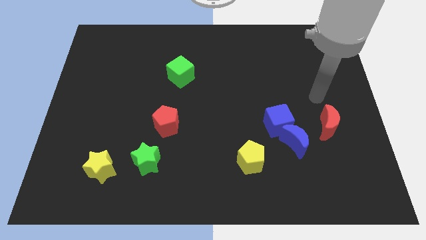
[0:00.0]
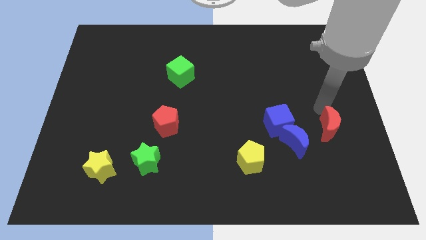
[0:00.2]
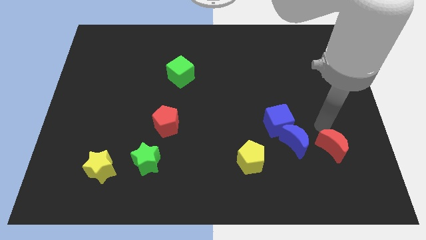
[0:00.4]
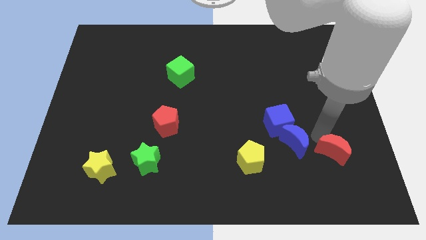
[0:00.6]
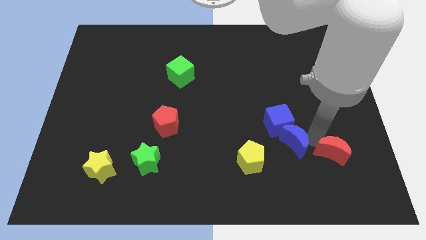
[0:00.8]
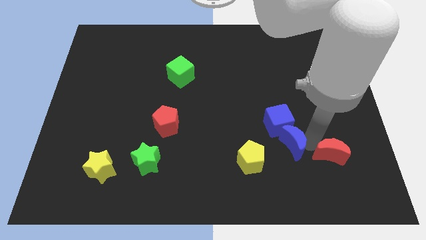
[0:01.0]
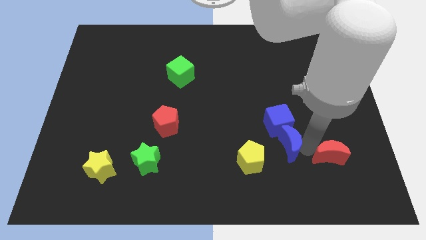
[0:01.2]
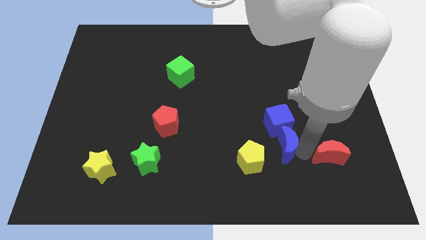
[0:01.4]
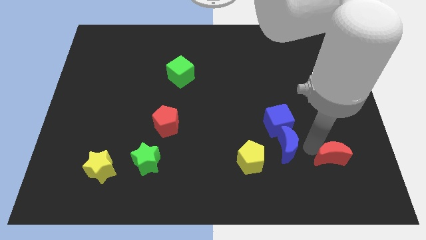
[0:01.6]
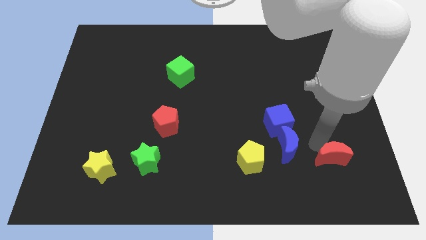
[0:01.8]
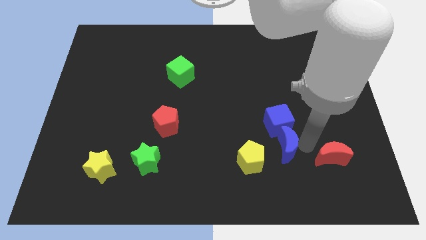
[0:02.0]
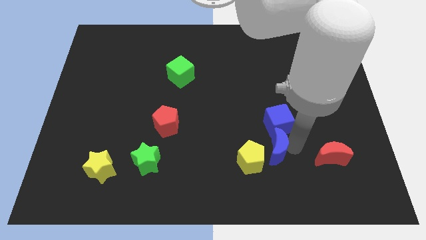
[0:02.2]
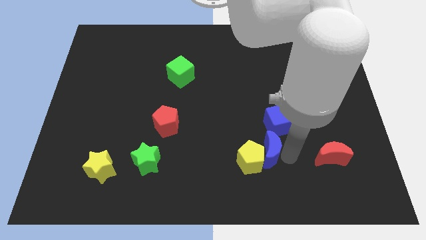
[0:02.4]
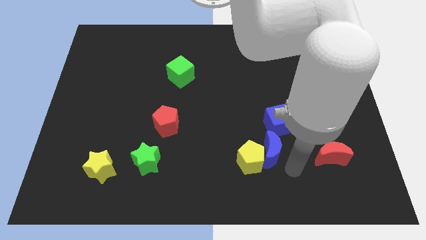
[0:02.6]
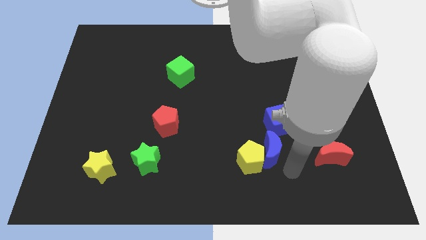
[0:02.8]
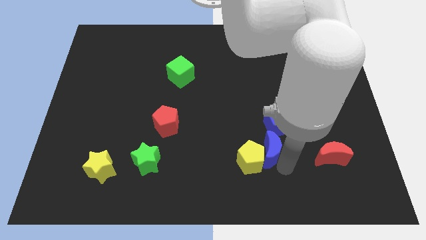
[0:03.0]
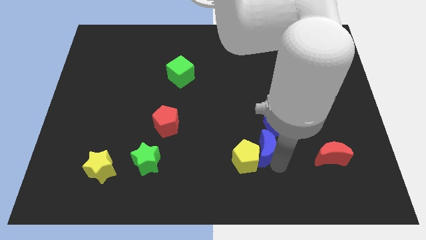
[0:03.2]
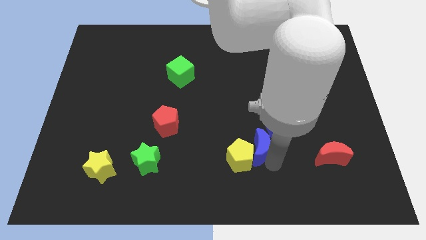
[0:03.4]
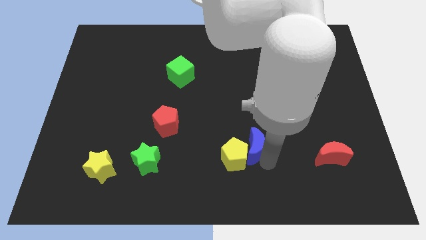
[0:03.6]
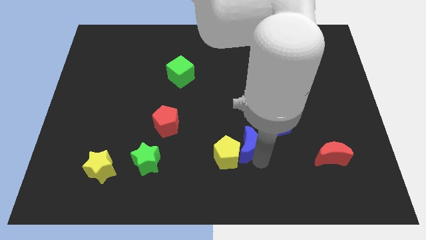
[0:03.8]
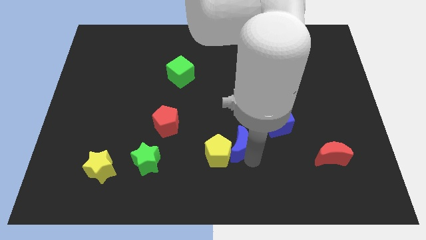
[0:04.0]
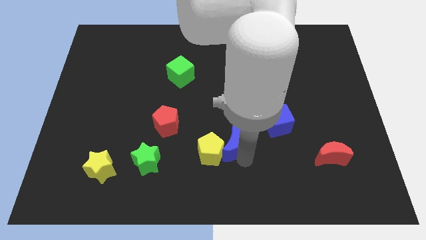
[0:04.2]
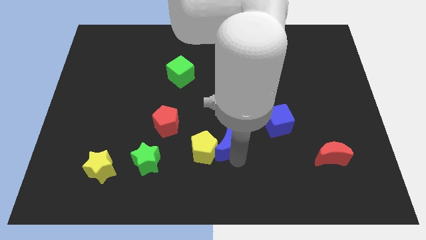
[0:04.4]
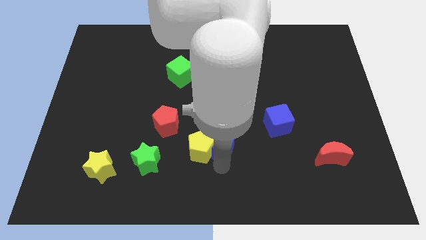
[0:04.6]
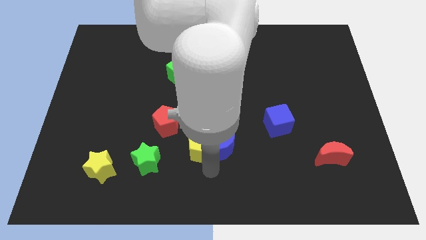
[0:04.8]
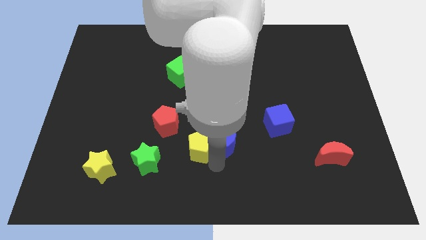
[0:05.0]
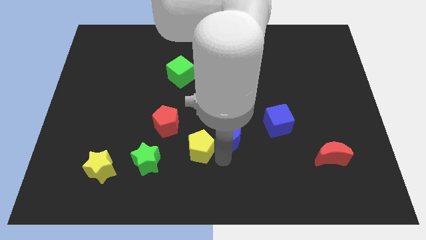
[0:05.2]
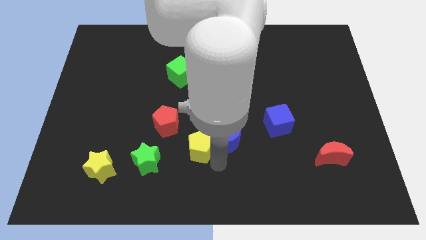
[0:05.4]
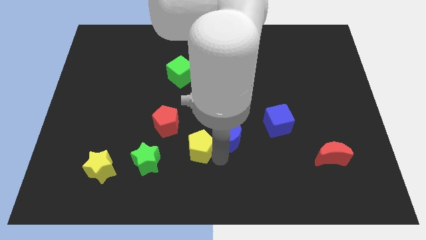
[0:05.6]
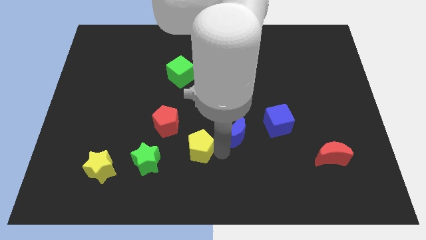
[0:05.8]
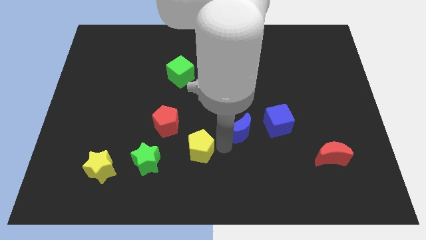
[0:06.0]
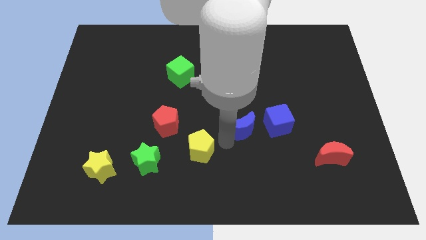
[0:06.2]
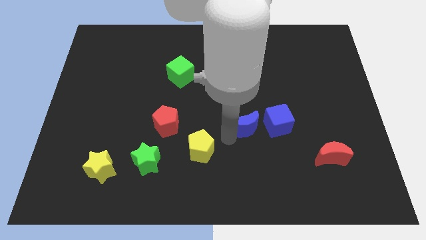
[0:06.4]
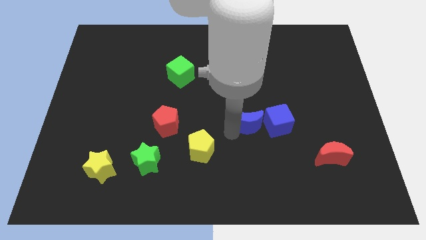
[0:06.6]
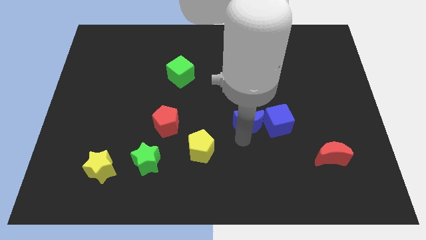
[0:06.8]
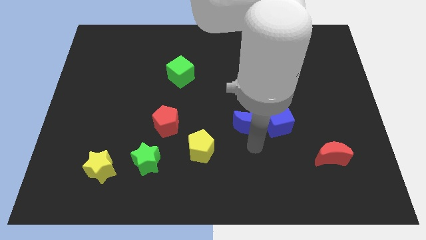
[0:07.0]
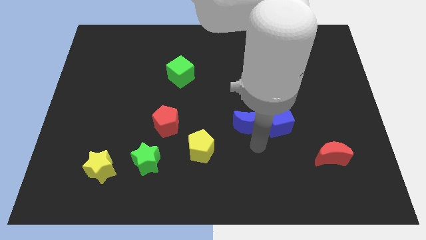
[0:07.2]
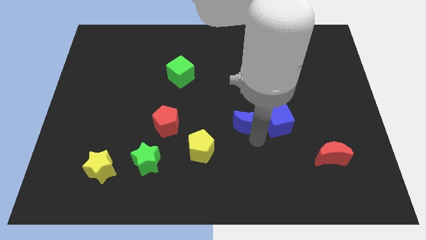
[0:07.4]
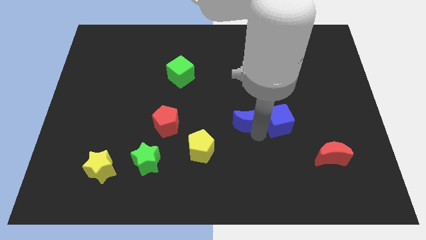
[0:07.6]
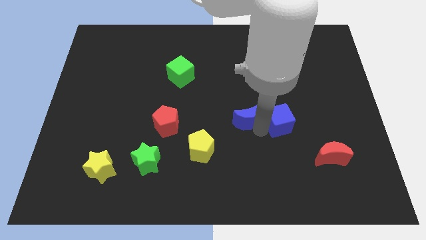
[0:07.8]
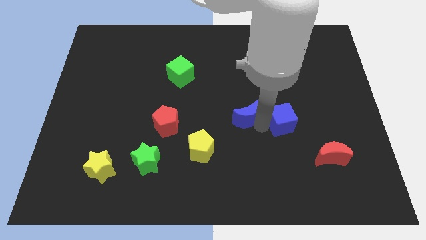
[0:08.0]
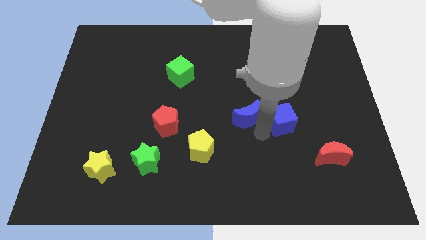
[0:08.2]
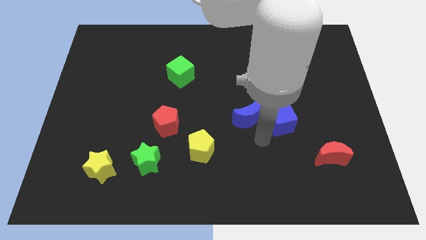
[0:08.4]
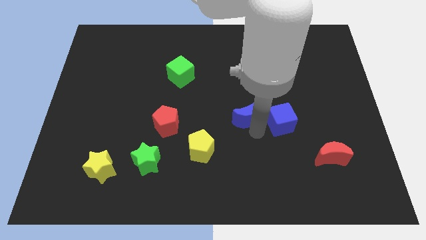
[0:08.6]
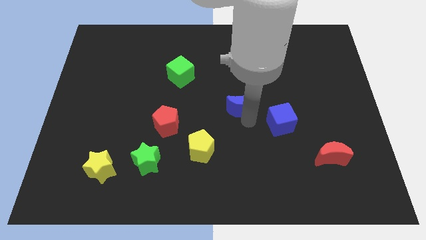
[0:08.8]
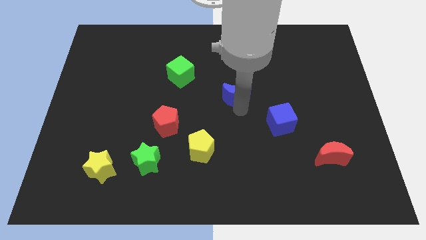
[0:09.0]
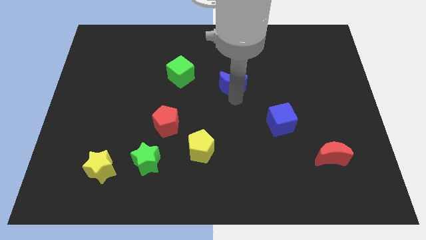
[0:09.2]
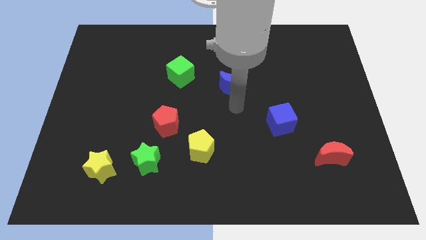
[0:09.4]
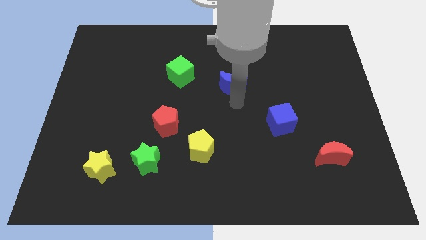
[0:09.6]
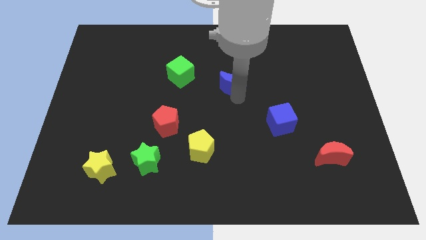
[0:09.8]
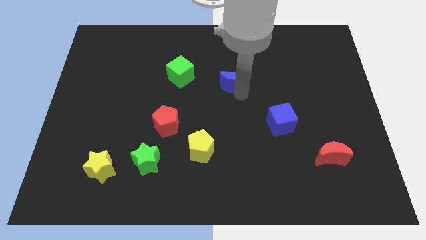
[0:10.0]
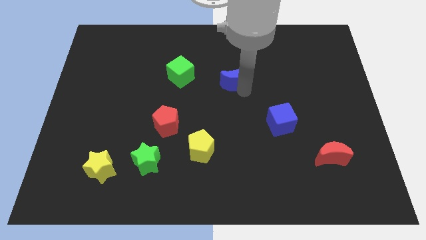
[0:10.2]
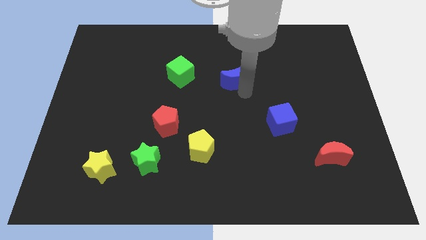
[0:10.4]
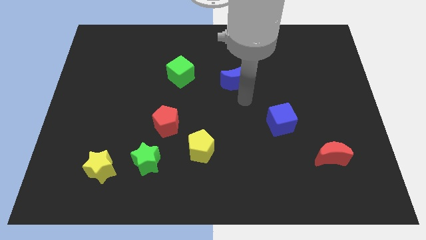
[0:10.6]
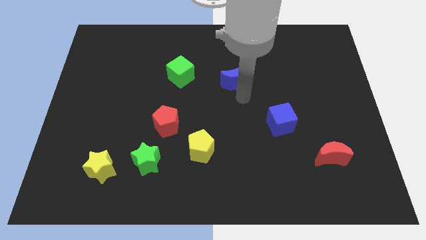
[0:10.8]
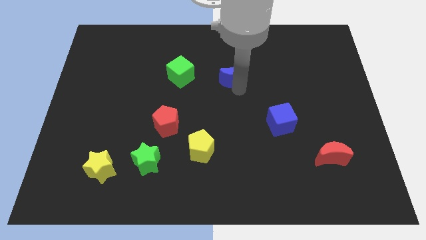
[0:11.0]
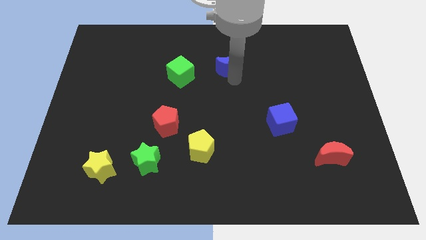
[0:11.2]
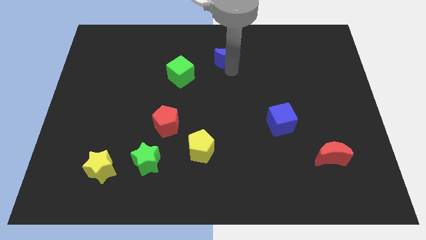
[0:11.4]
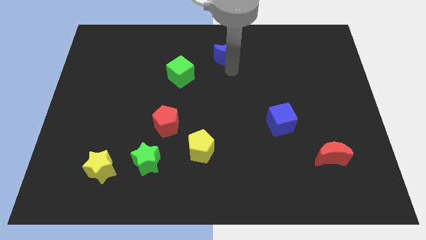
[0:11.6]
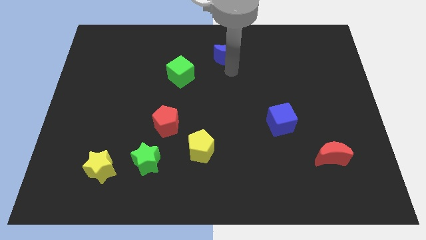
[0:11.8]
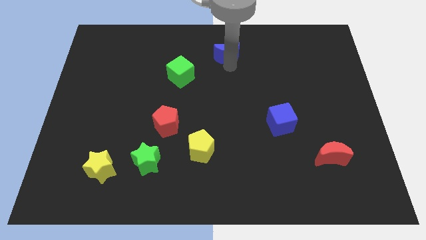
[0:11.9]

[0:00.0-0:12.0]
slide the blue moon to the towards your base
